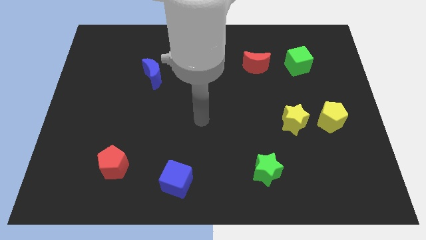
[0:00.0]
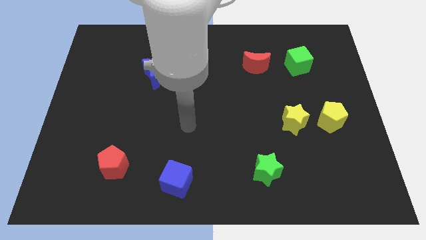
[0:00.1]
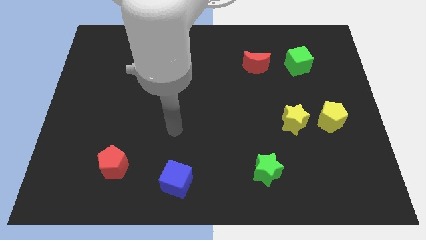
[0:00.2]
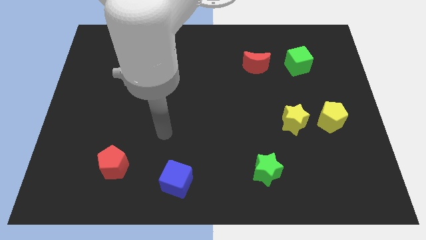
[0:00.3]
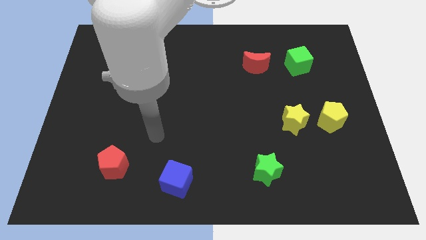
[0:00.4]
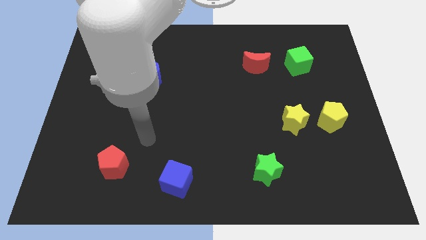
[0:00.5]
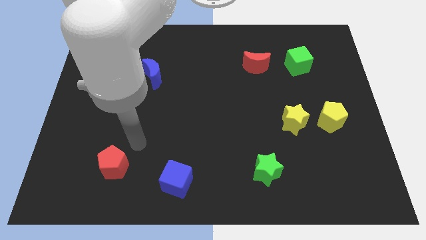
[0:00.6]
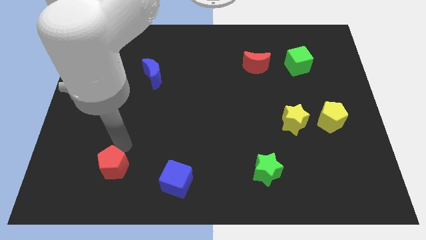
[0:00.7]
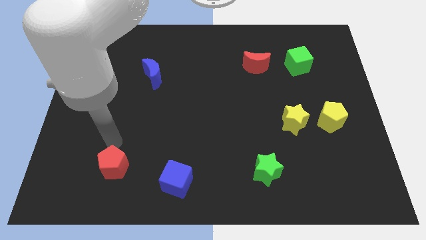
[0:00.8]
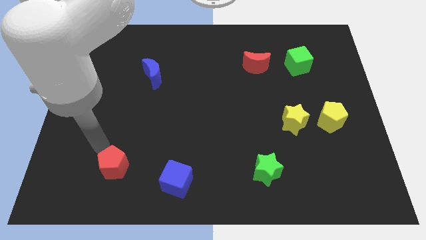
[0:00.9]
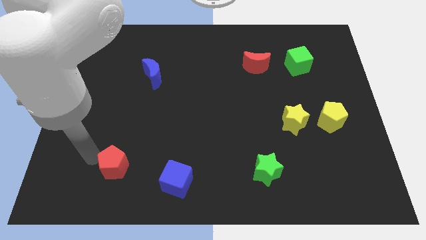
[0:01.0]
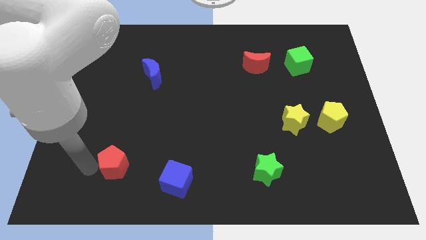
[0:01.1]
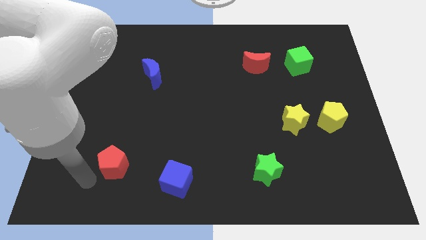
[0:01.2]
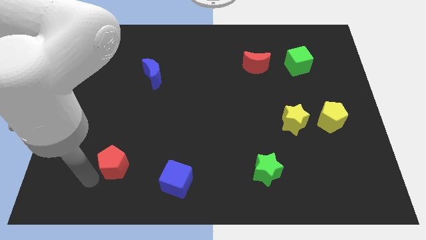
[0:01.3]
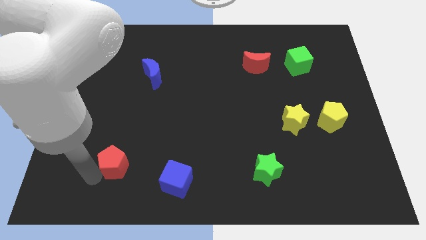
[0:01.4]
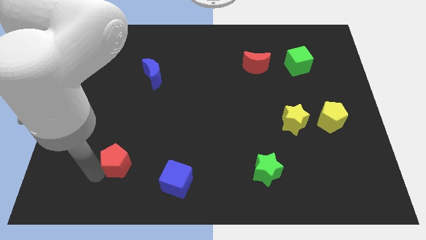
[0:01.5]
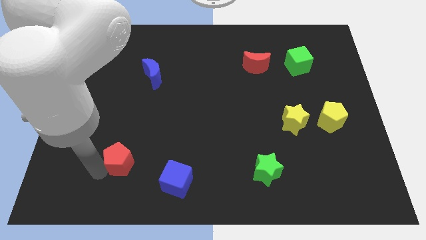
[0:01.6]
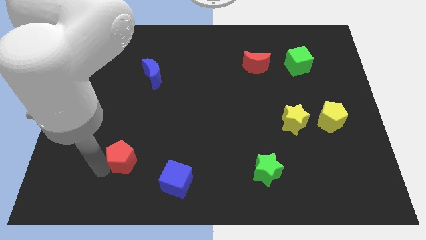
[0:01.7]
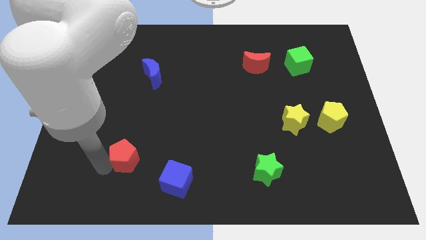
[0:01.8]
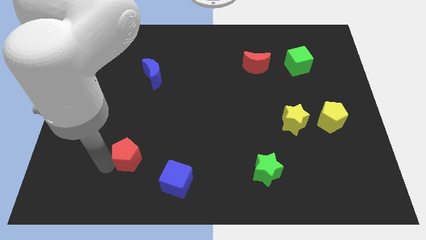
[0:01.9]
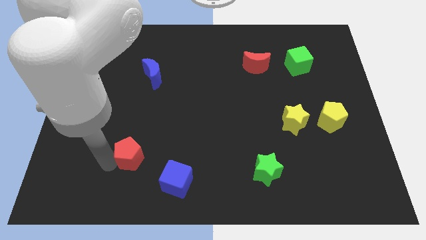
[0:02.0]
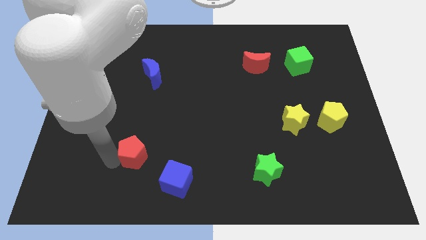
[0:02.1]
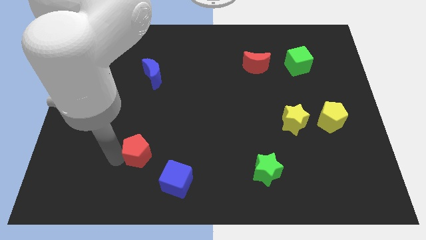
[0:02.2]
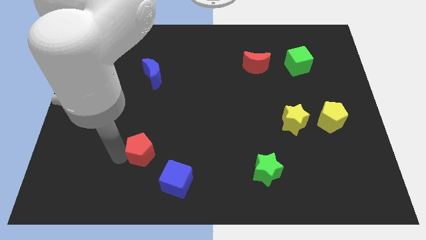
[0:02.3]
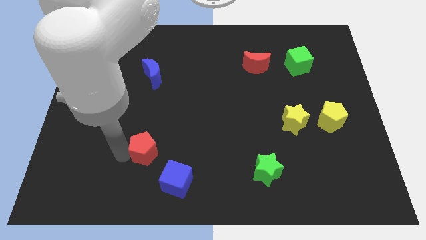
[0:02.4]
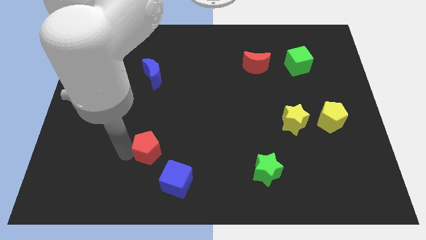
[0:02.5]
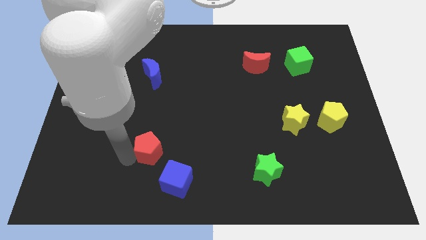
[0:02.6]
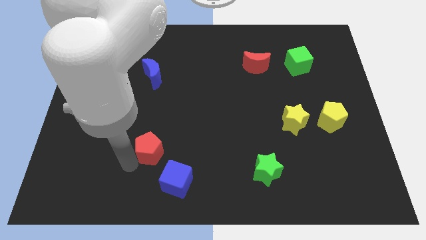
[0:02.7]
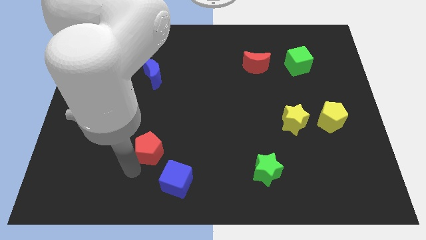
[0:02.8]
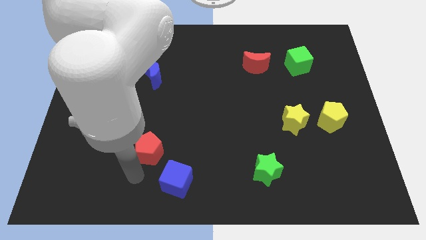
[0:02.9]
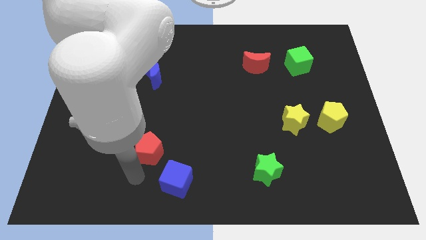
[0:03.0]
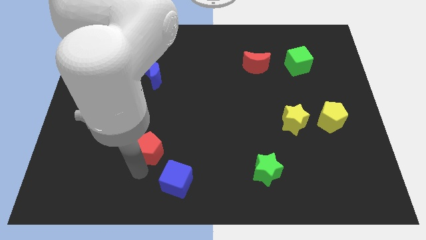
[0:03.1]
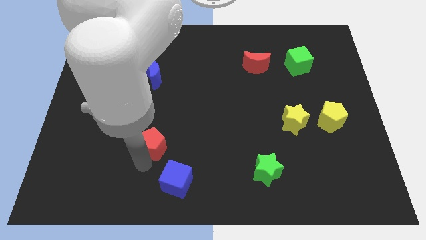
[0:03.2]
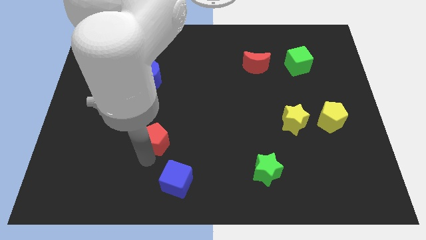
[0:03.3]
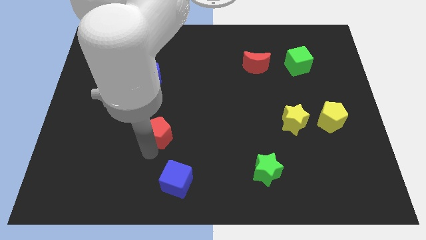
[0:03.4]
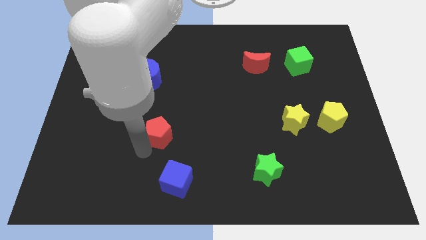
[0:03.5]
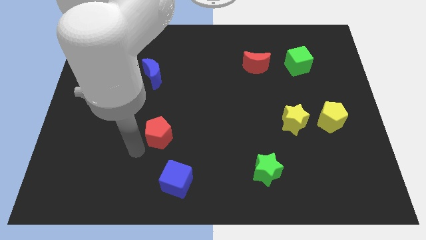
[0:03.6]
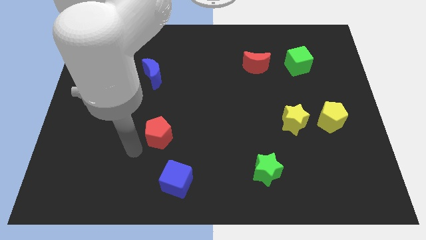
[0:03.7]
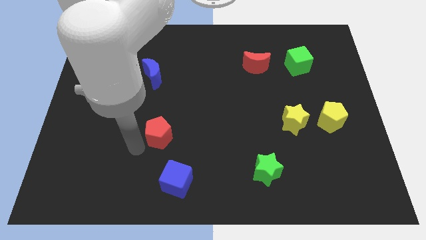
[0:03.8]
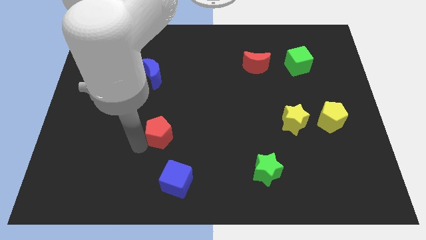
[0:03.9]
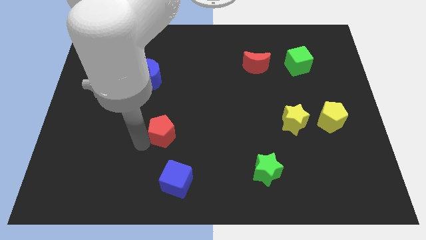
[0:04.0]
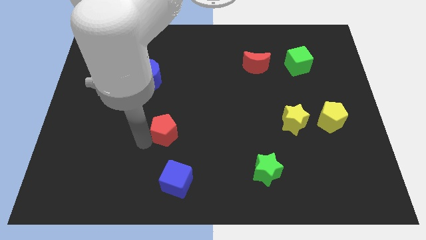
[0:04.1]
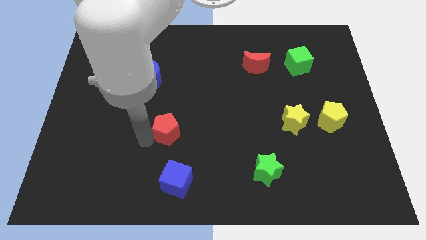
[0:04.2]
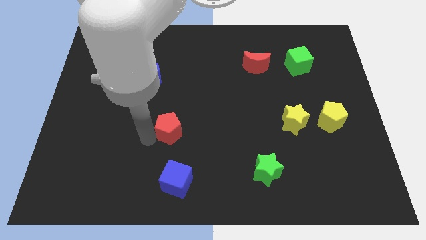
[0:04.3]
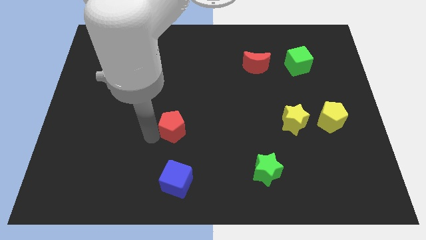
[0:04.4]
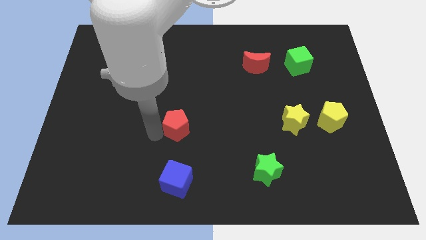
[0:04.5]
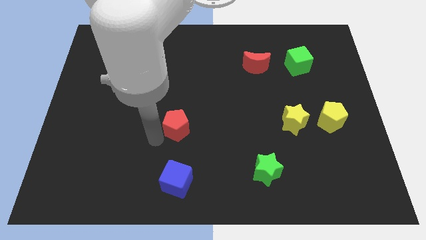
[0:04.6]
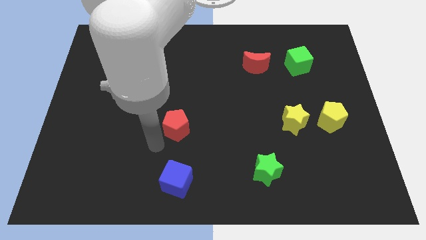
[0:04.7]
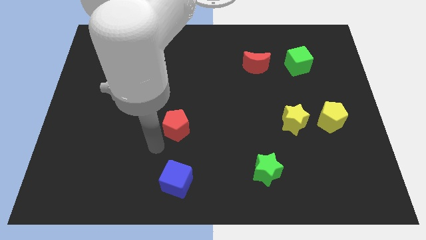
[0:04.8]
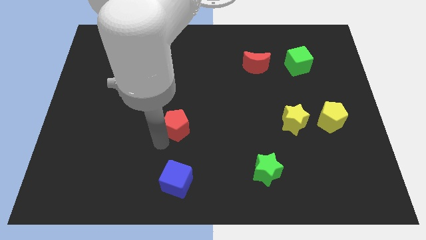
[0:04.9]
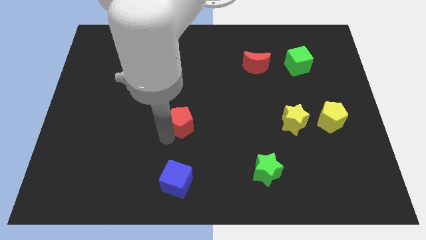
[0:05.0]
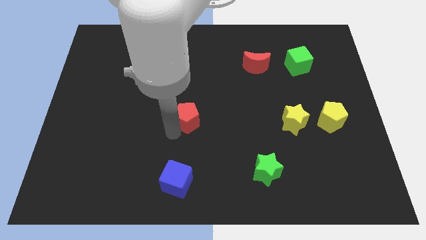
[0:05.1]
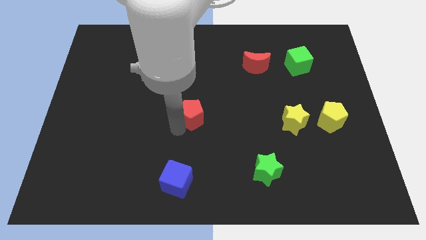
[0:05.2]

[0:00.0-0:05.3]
push the red pentagon upwards and then to the right

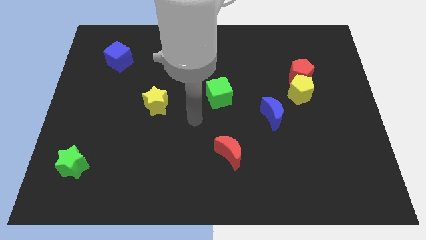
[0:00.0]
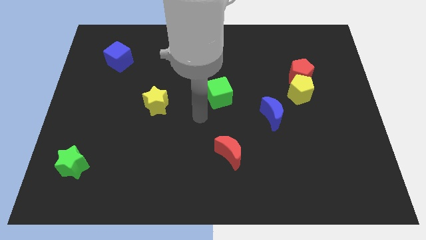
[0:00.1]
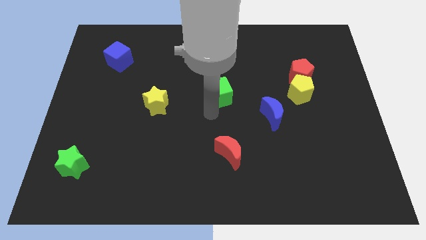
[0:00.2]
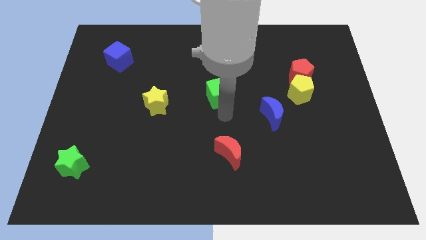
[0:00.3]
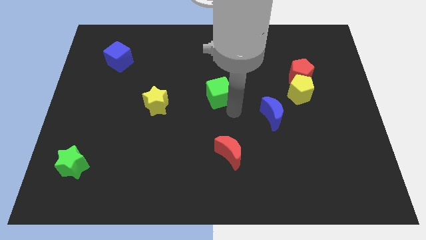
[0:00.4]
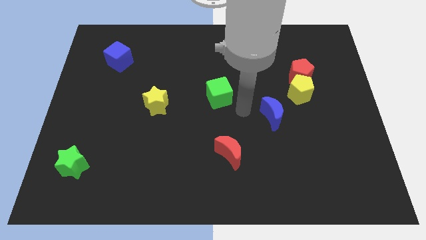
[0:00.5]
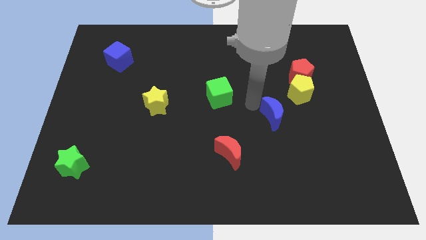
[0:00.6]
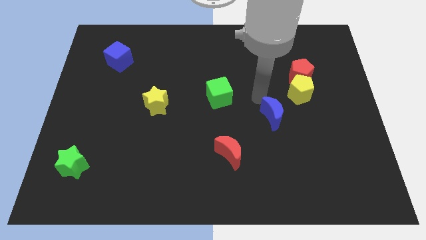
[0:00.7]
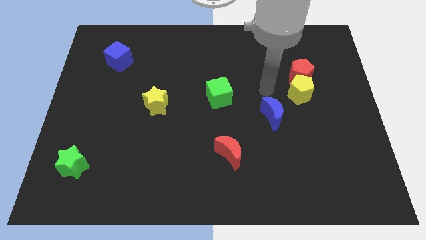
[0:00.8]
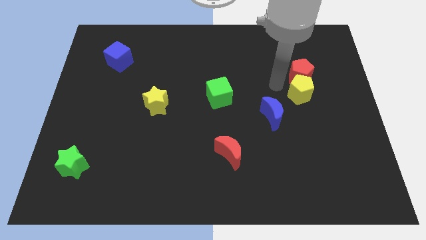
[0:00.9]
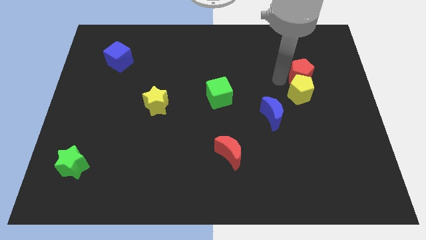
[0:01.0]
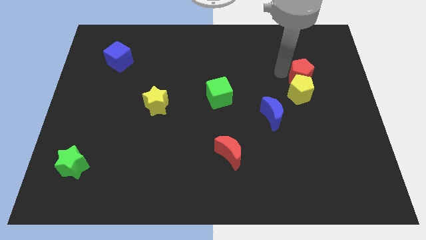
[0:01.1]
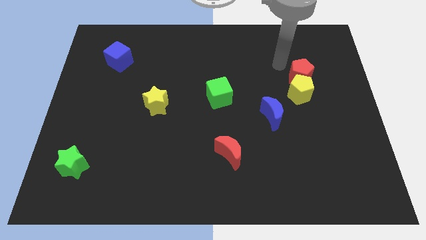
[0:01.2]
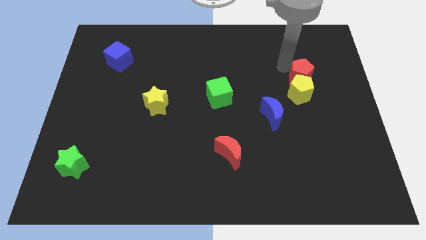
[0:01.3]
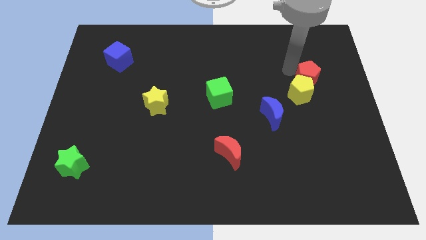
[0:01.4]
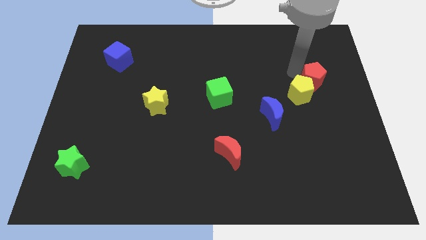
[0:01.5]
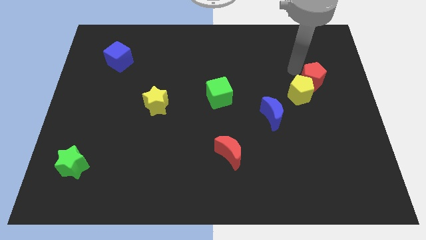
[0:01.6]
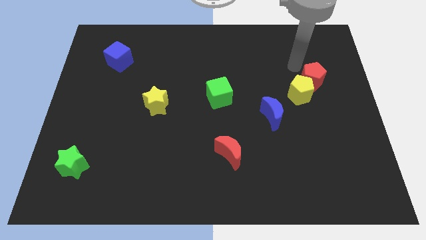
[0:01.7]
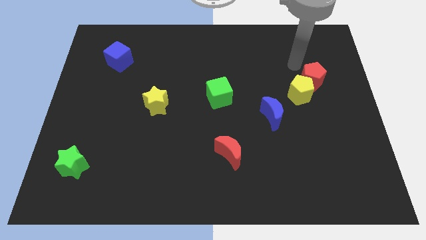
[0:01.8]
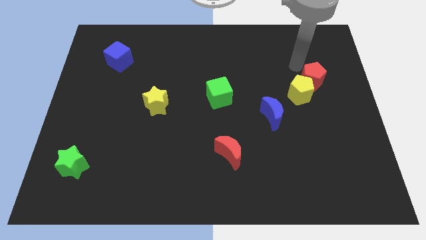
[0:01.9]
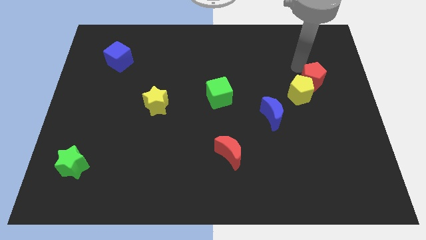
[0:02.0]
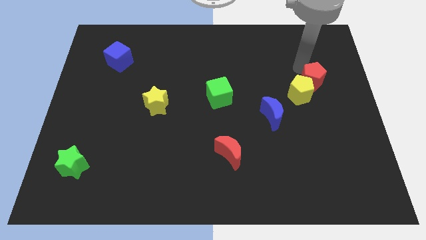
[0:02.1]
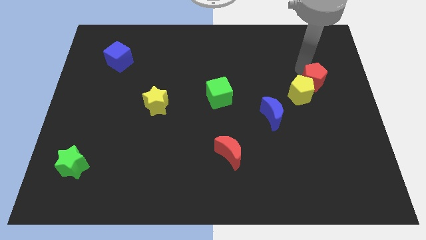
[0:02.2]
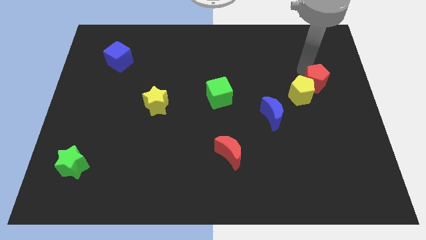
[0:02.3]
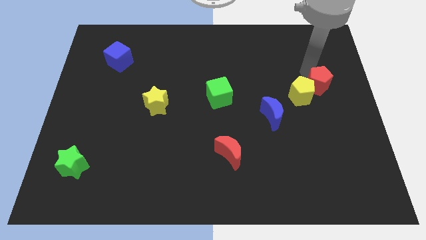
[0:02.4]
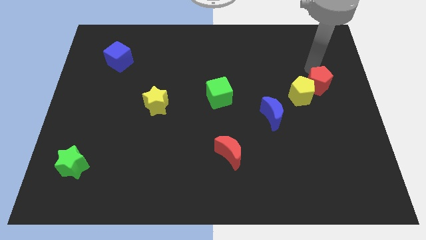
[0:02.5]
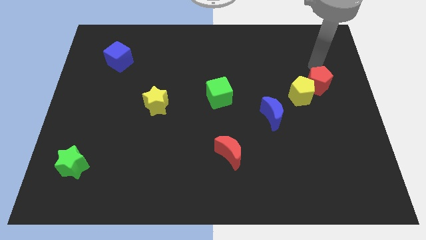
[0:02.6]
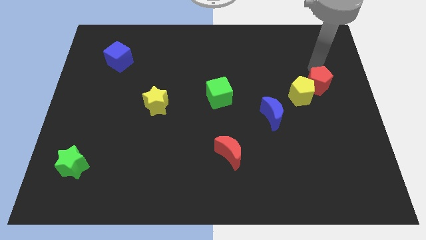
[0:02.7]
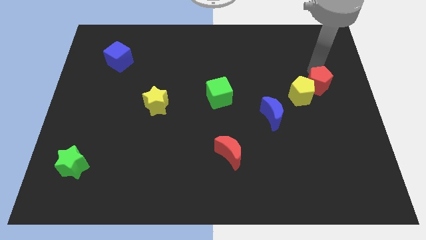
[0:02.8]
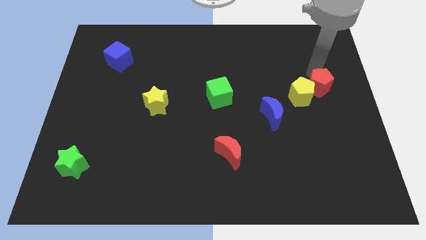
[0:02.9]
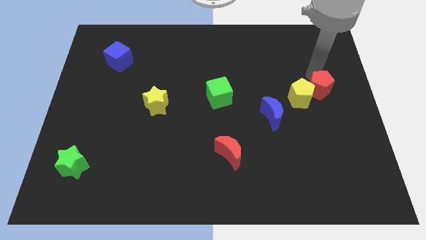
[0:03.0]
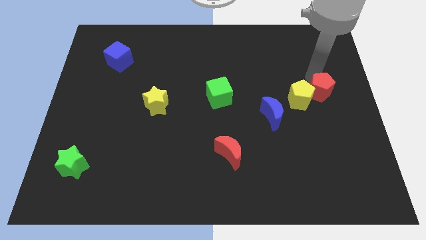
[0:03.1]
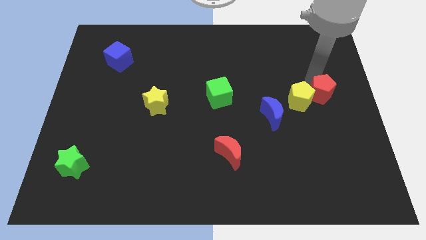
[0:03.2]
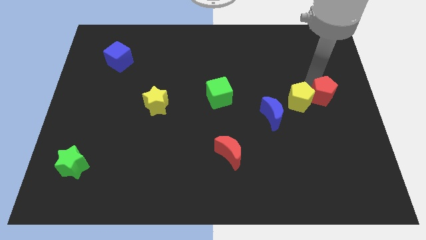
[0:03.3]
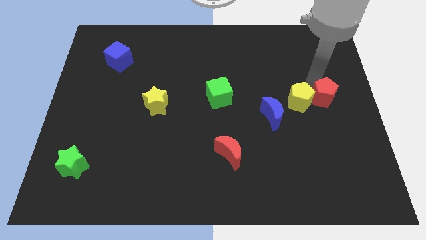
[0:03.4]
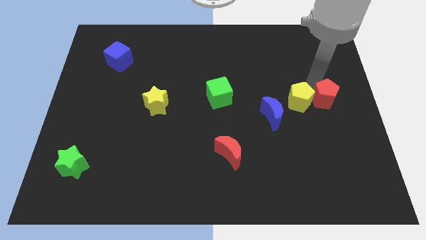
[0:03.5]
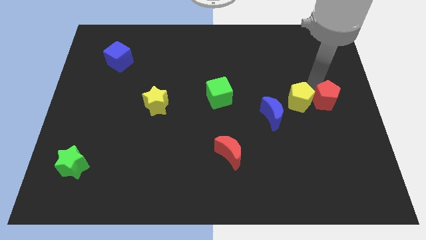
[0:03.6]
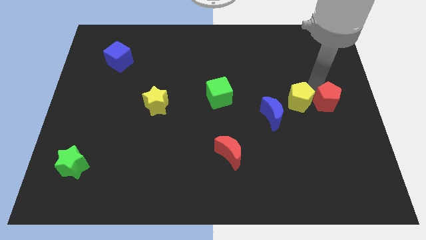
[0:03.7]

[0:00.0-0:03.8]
slide the red pentagon down a little bit
